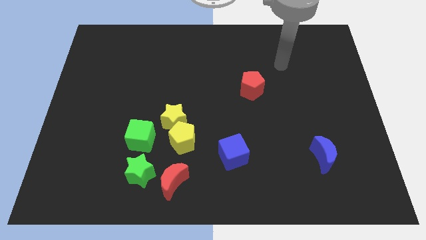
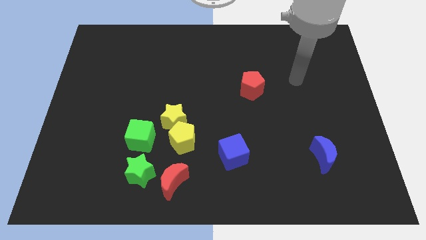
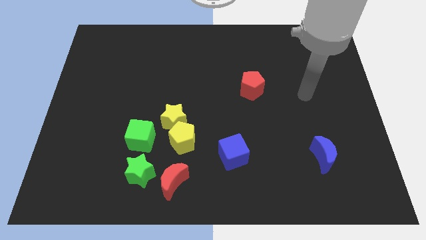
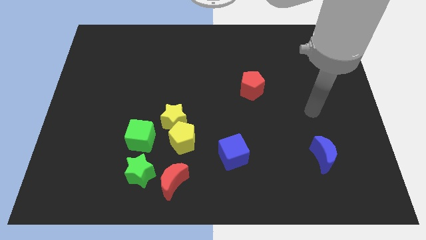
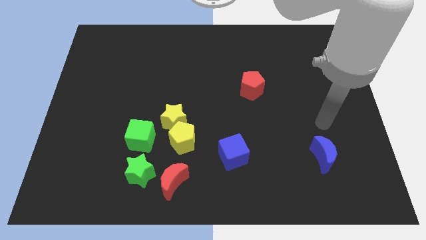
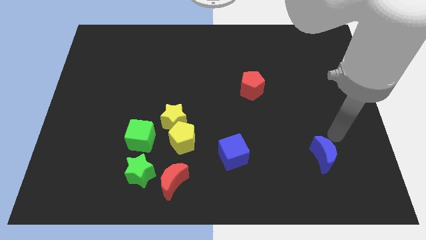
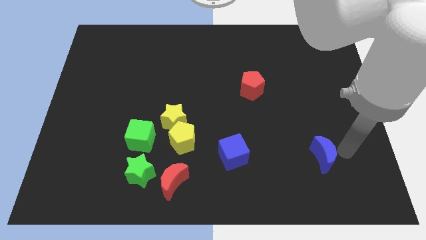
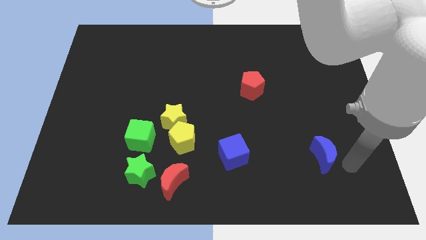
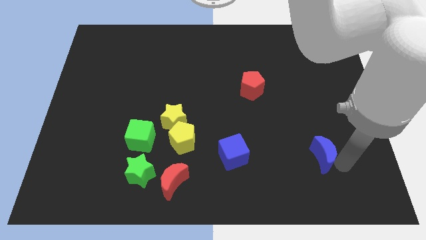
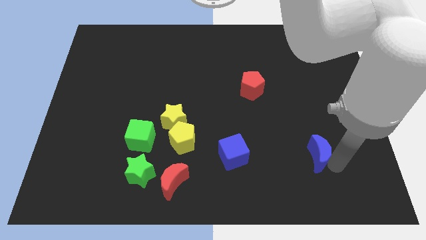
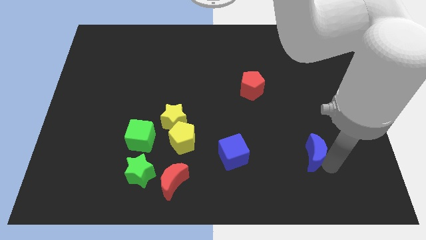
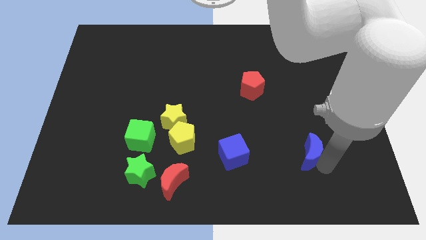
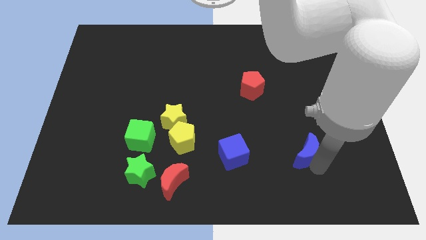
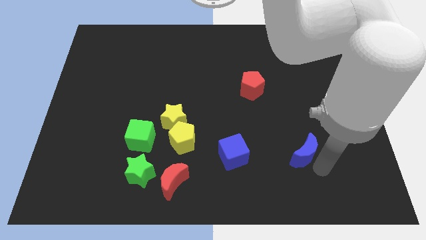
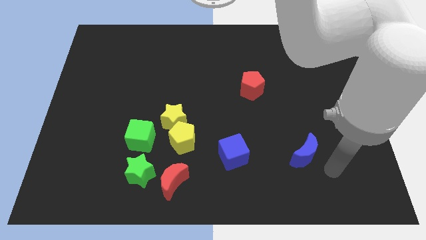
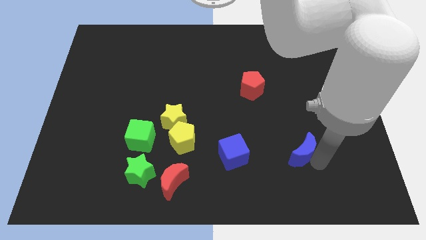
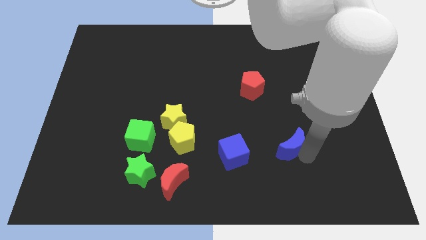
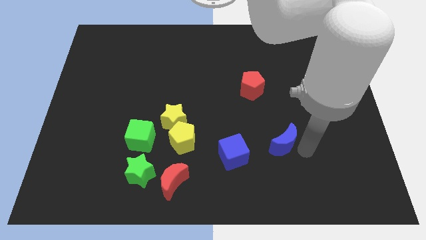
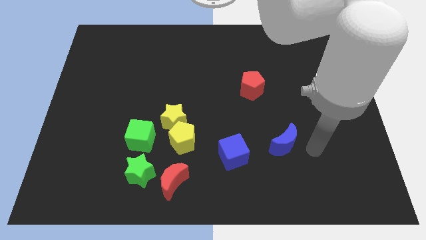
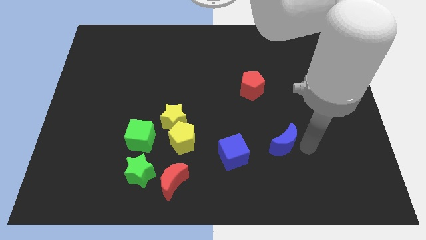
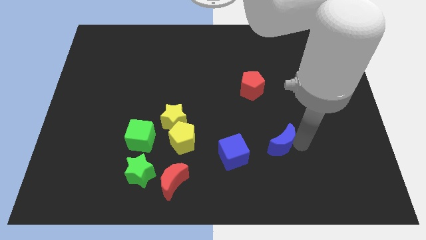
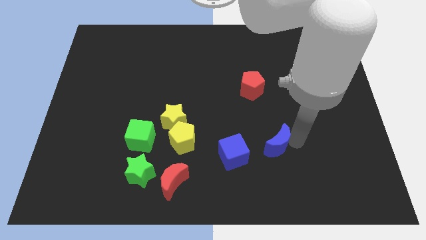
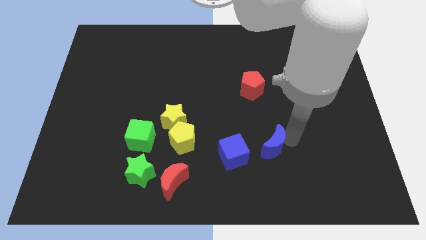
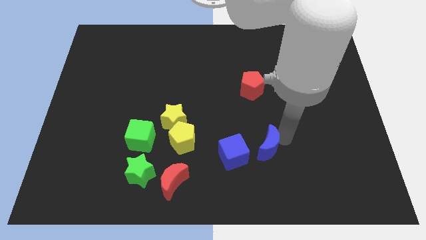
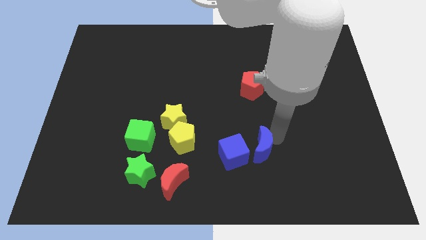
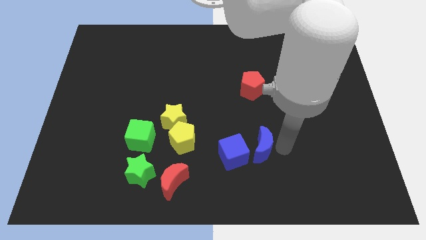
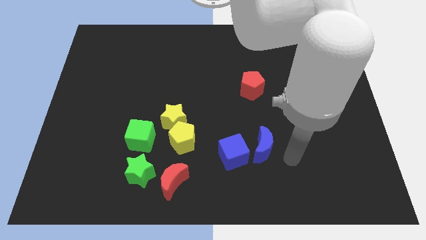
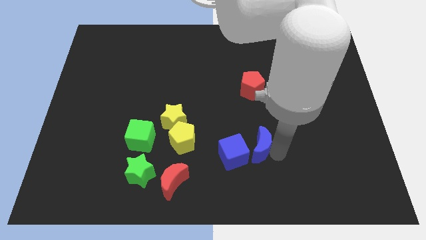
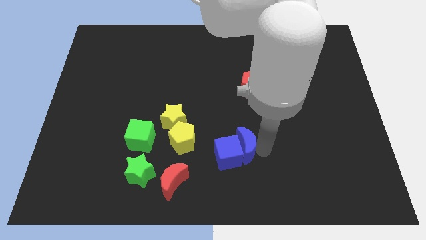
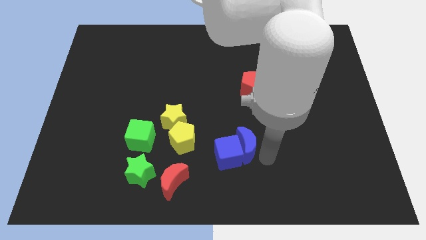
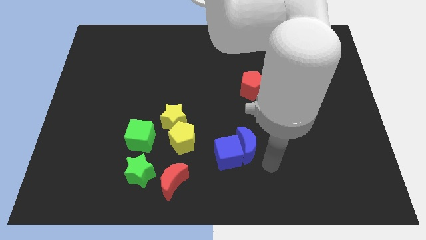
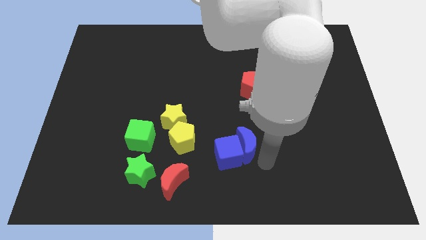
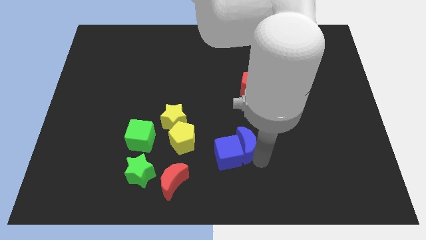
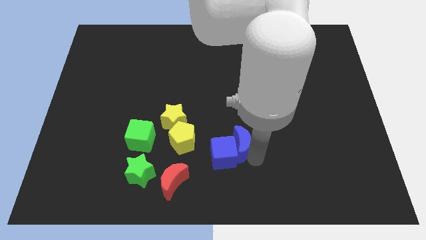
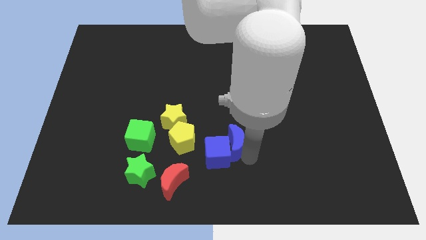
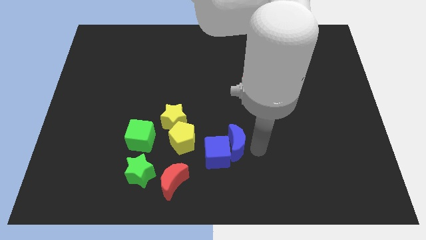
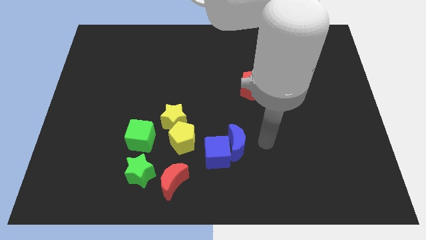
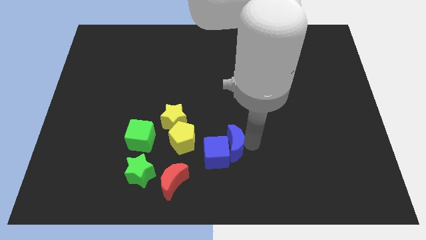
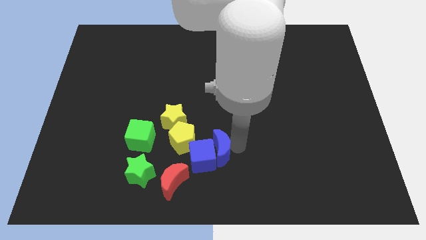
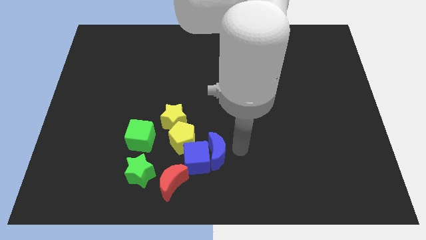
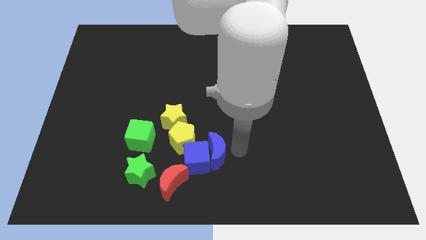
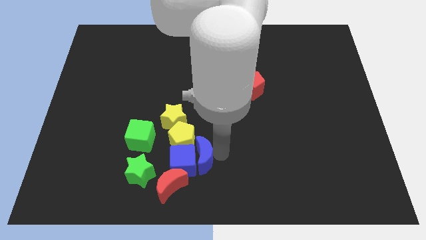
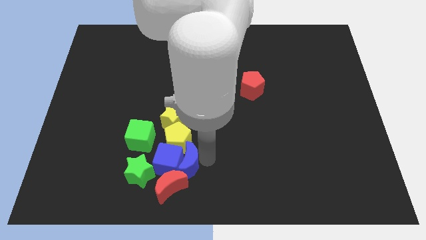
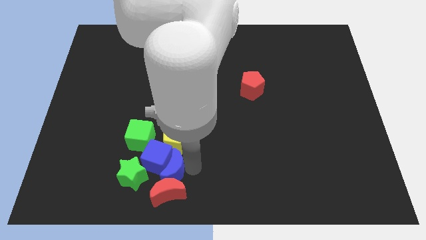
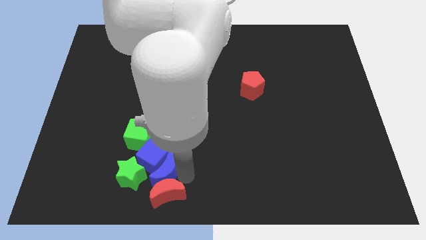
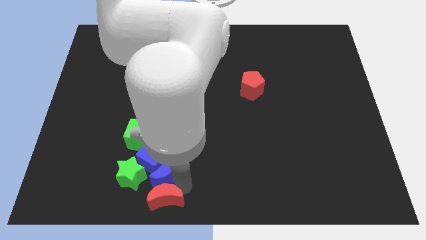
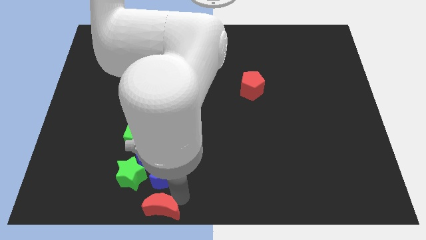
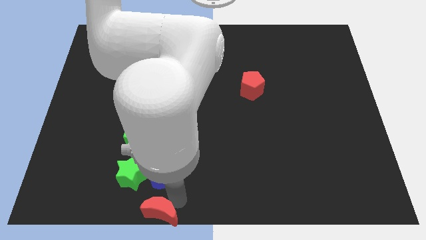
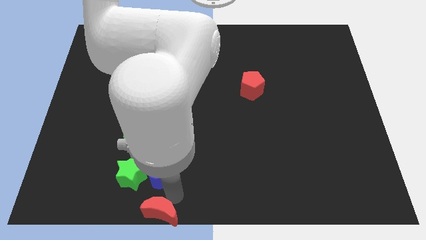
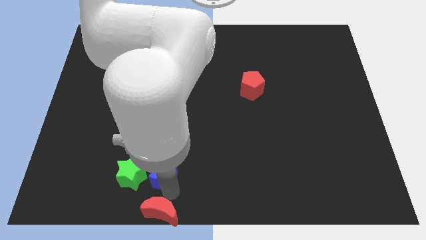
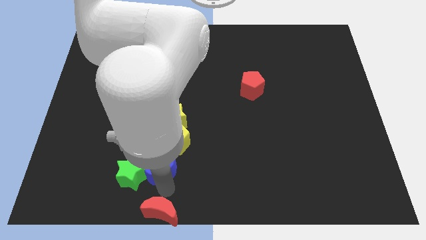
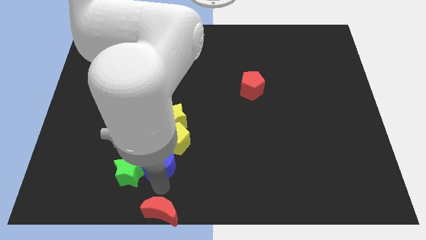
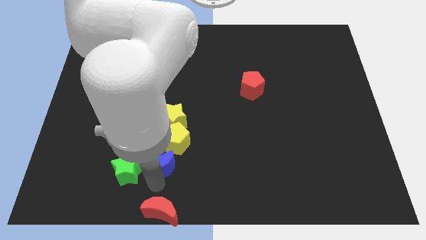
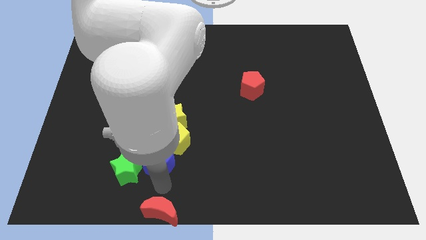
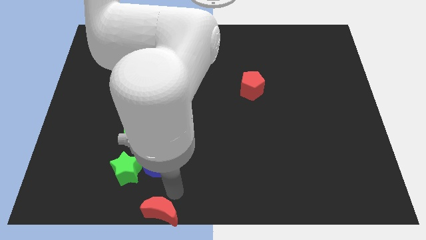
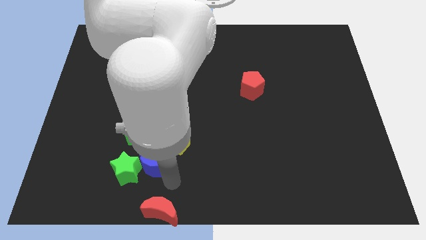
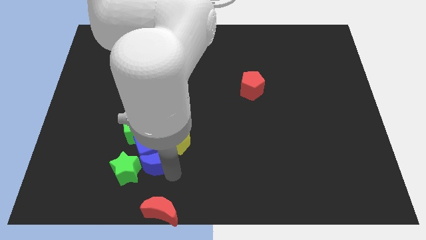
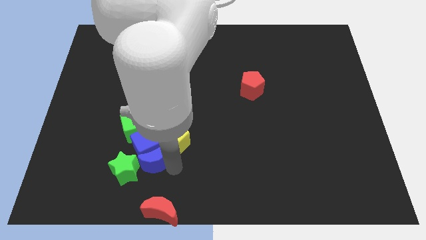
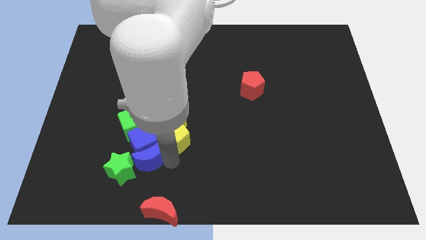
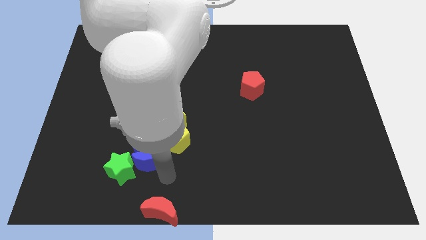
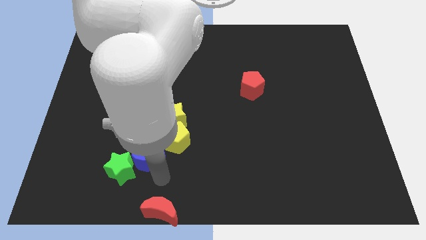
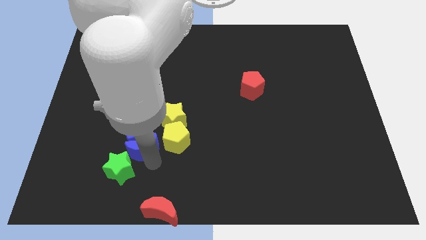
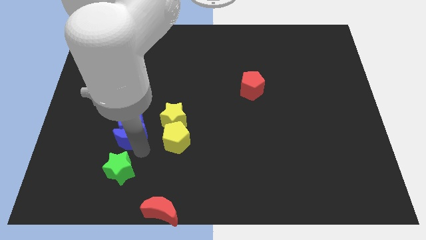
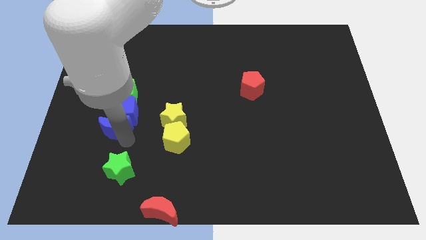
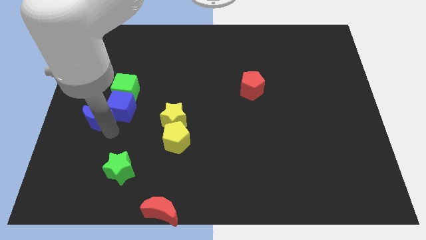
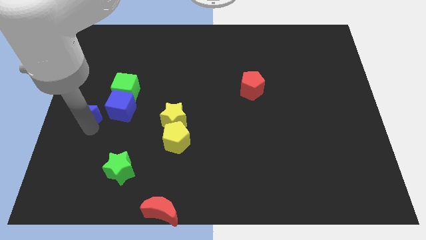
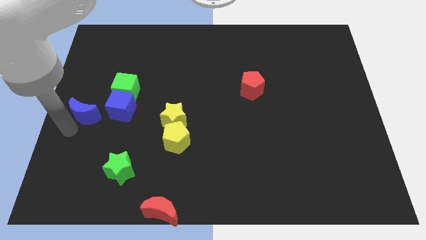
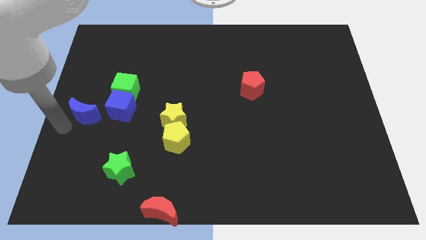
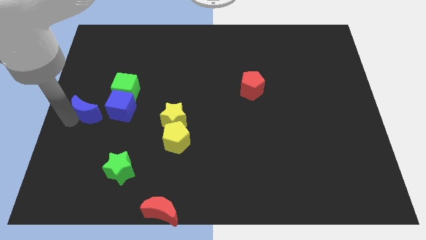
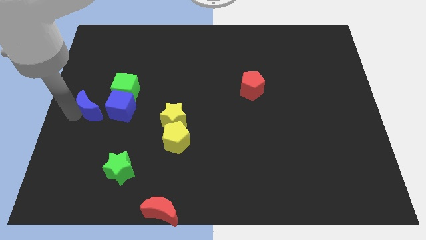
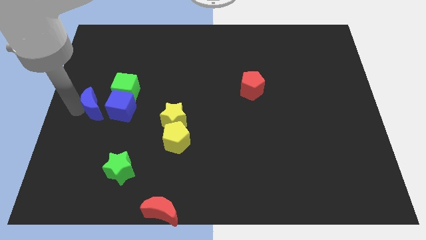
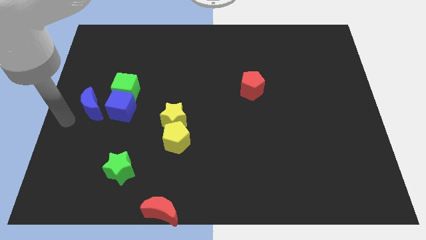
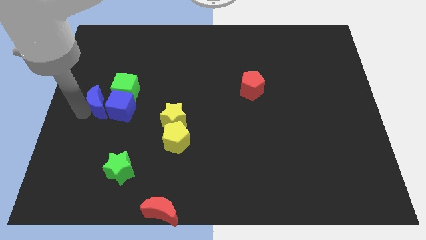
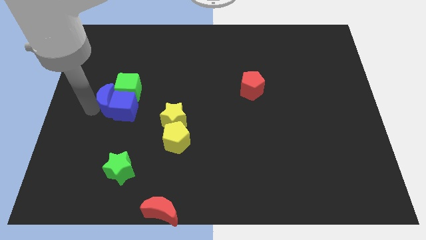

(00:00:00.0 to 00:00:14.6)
put the blue moon close to the green cube
